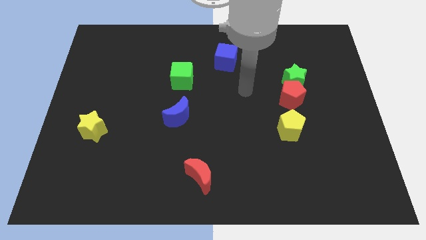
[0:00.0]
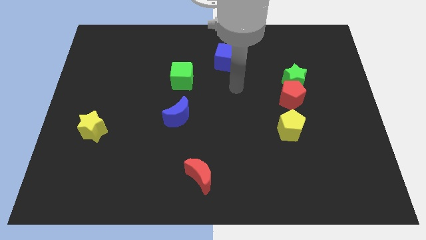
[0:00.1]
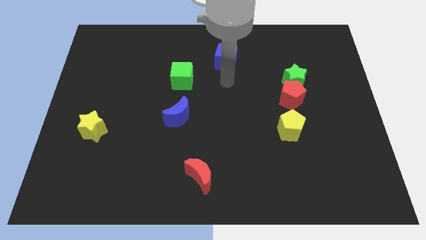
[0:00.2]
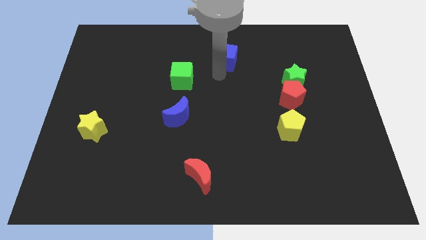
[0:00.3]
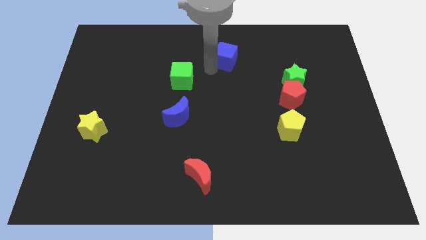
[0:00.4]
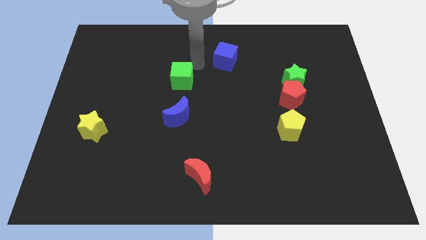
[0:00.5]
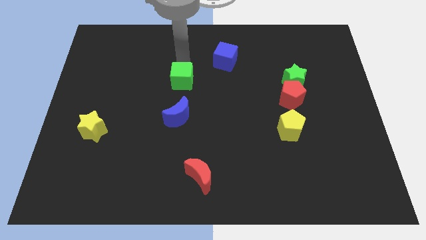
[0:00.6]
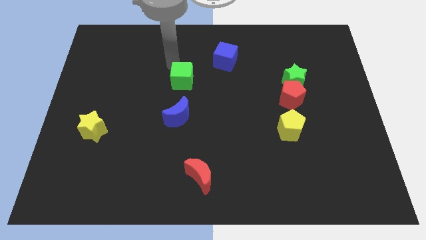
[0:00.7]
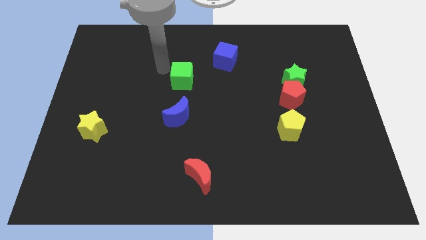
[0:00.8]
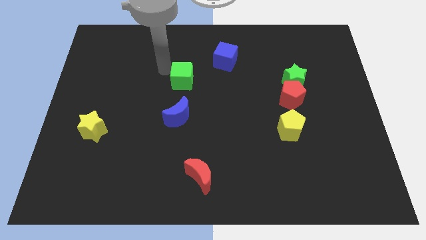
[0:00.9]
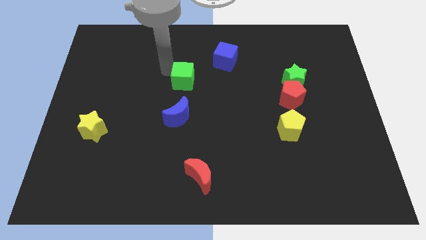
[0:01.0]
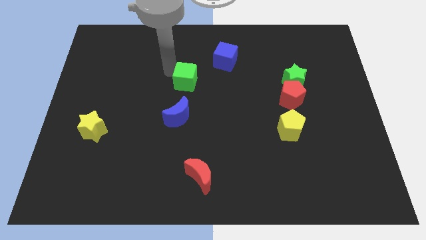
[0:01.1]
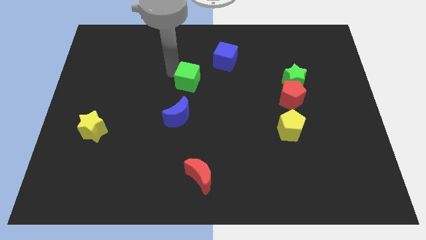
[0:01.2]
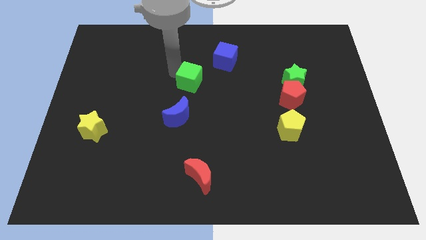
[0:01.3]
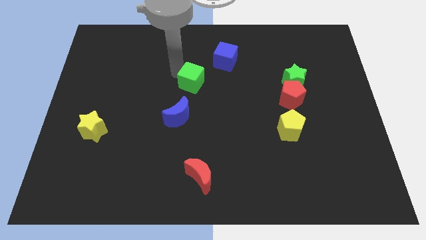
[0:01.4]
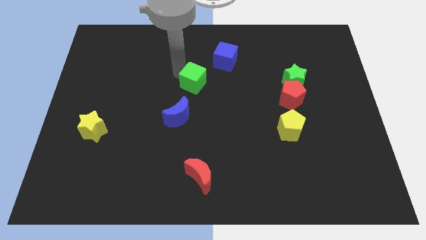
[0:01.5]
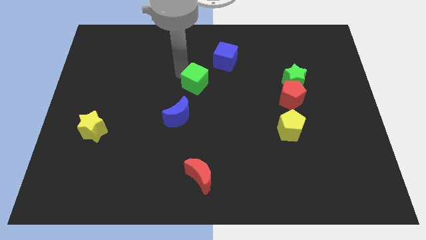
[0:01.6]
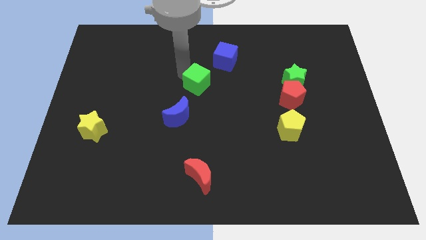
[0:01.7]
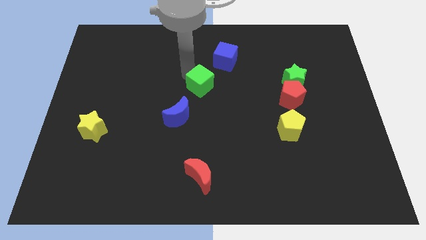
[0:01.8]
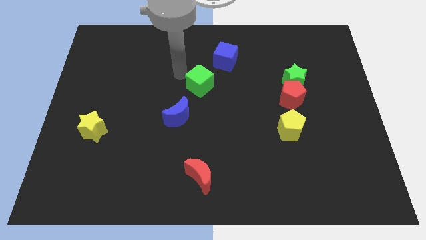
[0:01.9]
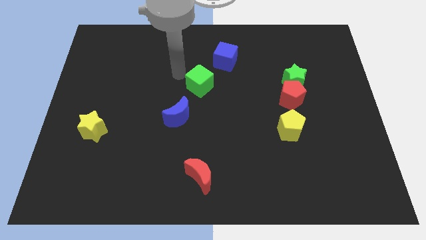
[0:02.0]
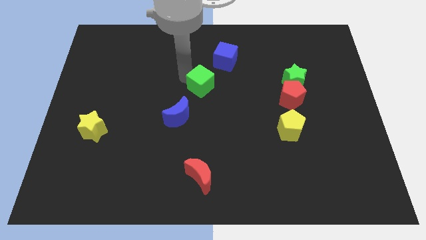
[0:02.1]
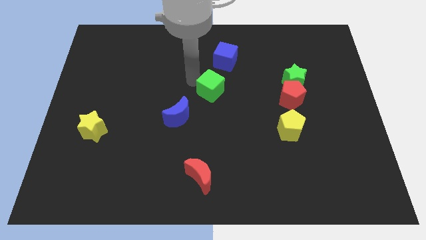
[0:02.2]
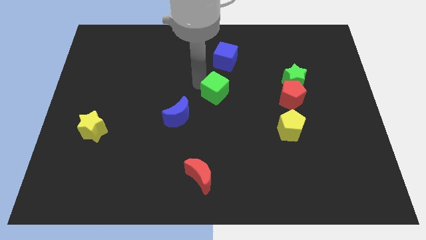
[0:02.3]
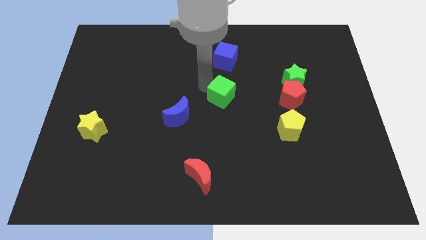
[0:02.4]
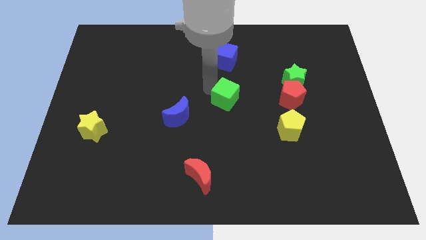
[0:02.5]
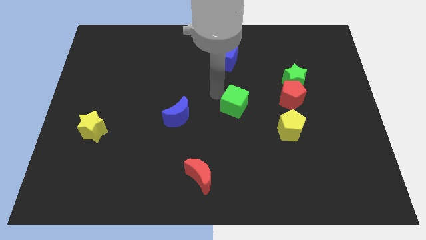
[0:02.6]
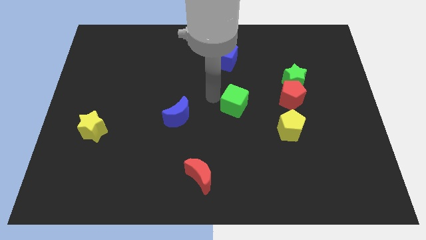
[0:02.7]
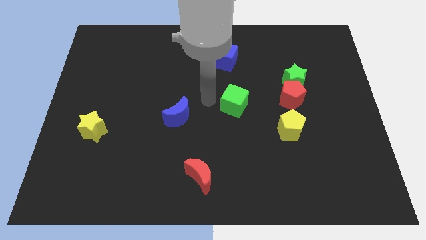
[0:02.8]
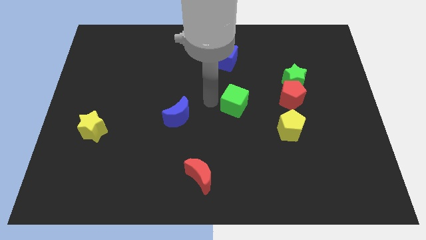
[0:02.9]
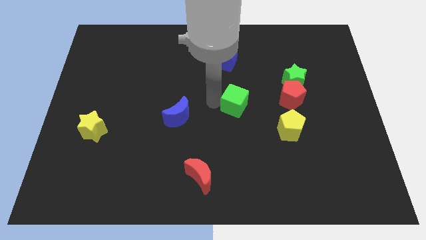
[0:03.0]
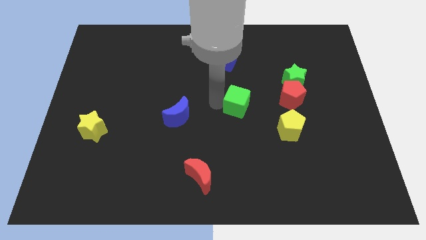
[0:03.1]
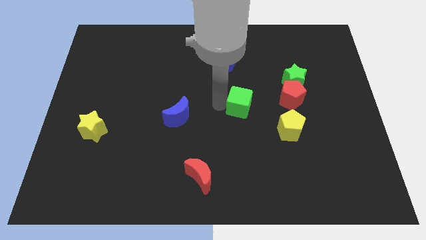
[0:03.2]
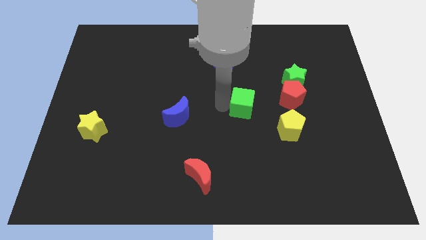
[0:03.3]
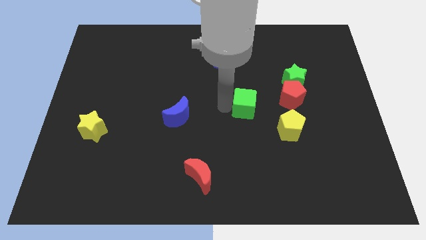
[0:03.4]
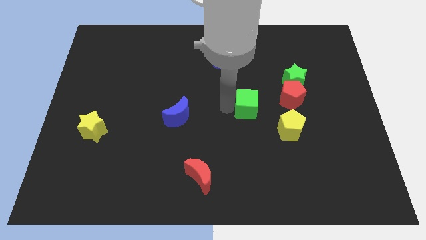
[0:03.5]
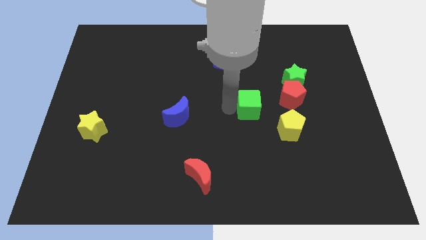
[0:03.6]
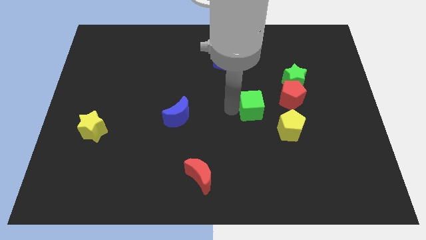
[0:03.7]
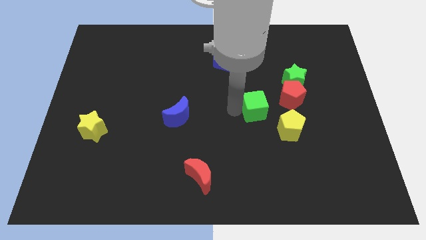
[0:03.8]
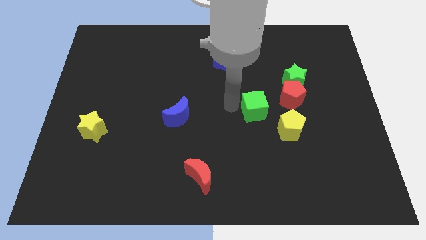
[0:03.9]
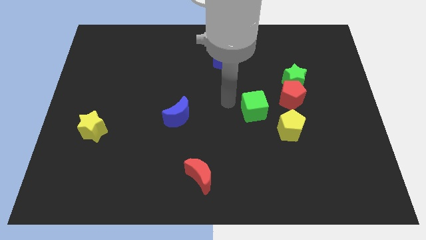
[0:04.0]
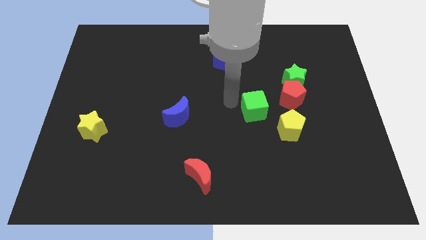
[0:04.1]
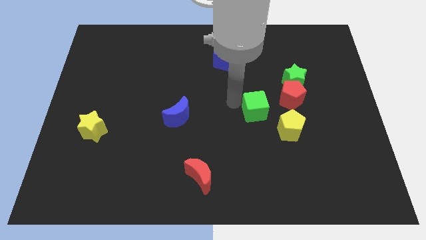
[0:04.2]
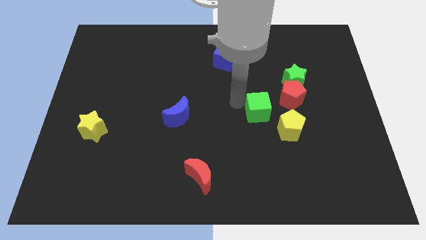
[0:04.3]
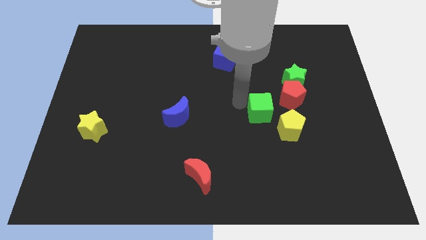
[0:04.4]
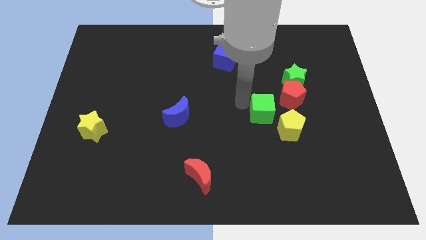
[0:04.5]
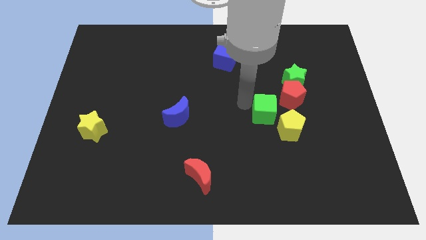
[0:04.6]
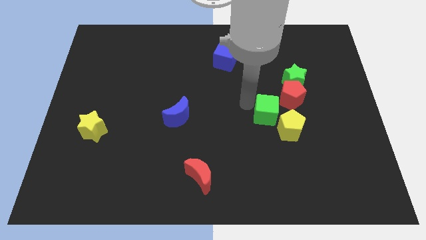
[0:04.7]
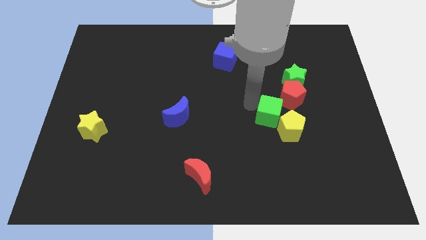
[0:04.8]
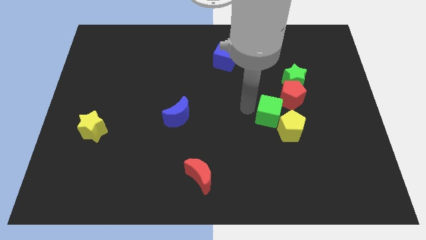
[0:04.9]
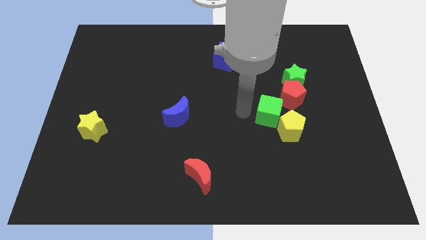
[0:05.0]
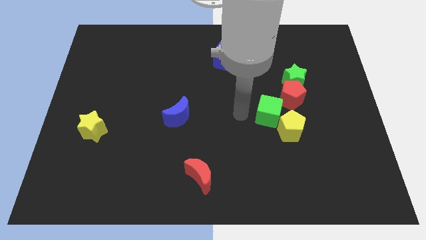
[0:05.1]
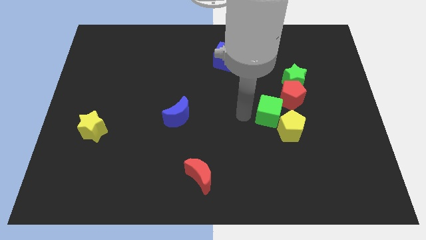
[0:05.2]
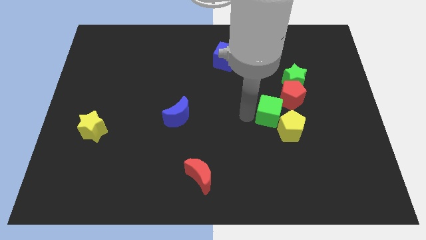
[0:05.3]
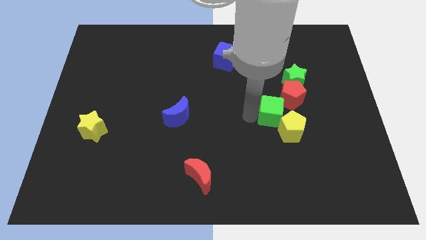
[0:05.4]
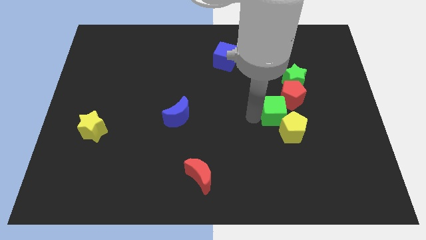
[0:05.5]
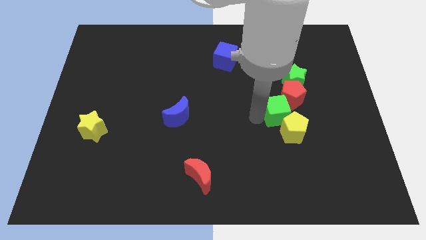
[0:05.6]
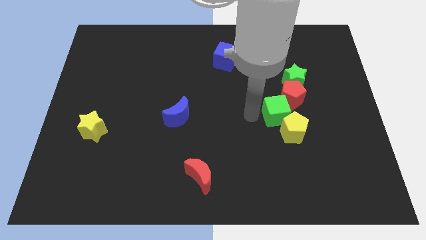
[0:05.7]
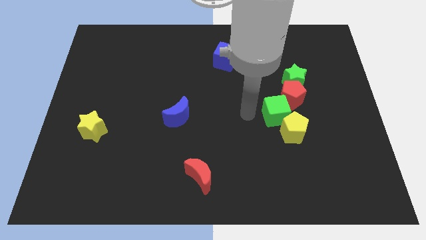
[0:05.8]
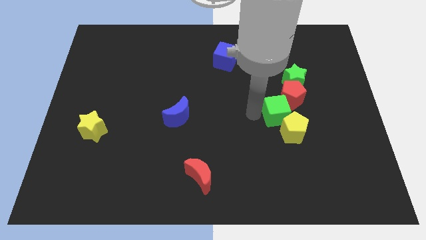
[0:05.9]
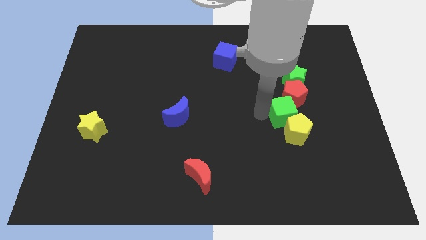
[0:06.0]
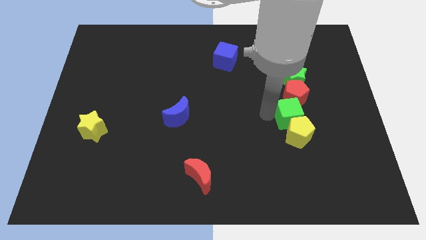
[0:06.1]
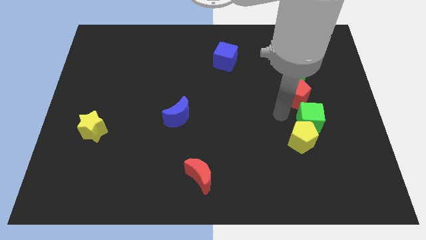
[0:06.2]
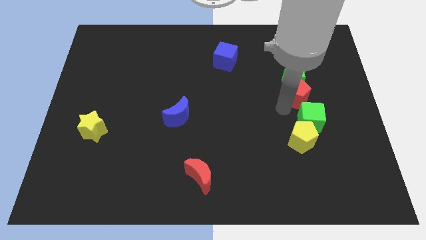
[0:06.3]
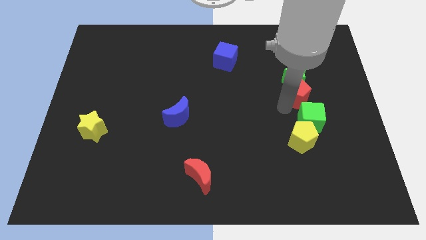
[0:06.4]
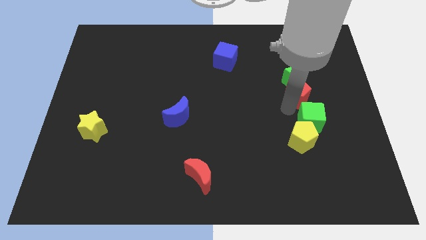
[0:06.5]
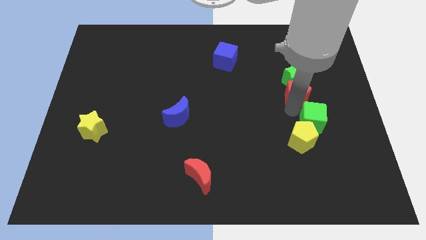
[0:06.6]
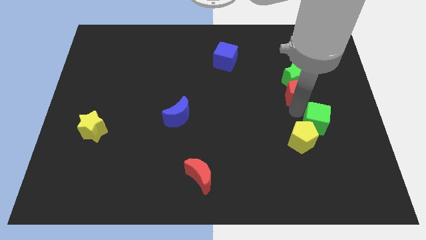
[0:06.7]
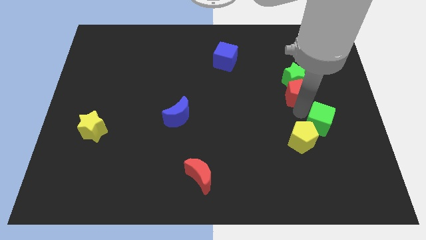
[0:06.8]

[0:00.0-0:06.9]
slide the green cube to the right of the yellow pentagon

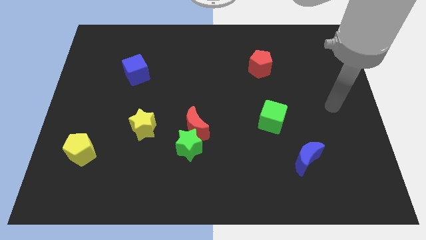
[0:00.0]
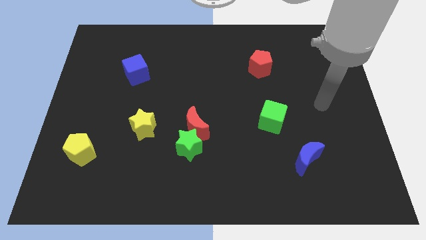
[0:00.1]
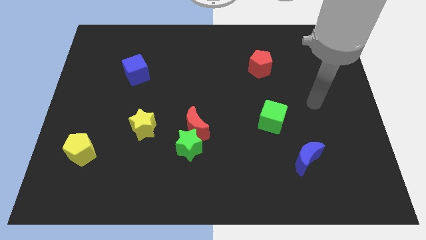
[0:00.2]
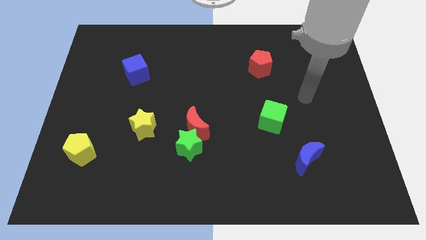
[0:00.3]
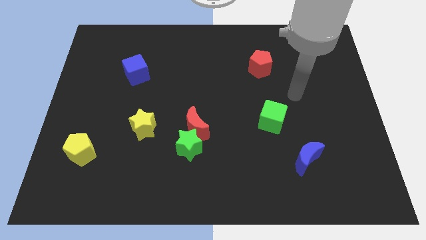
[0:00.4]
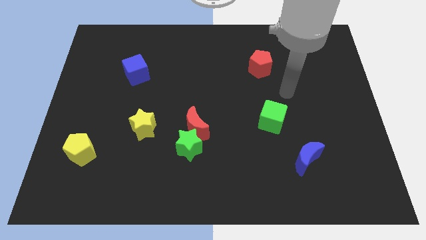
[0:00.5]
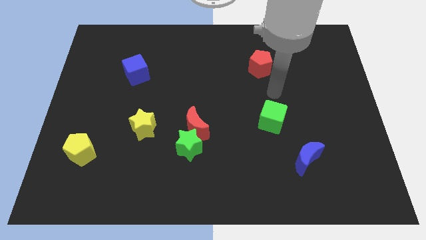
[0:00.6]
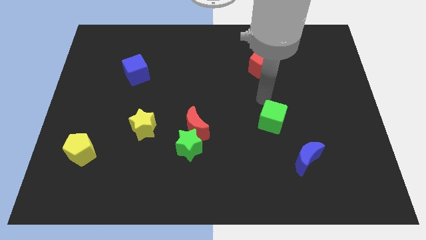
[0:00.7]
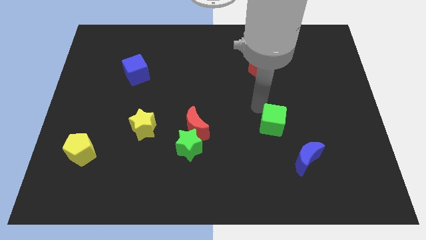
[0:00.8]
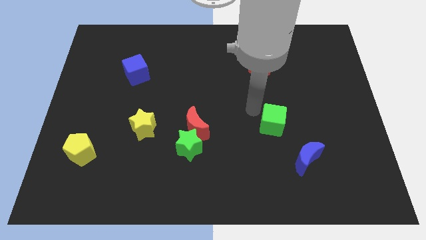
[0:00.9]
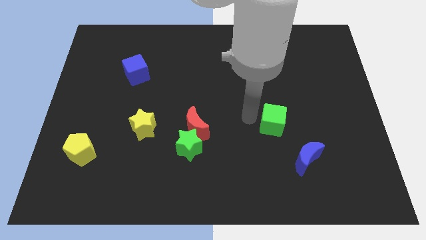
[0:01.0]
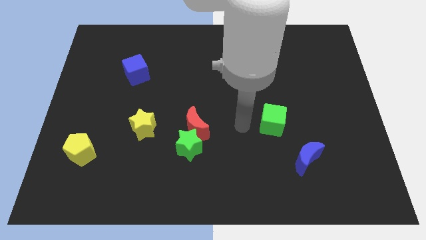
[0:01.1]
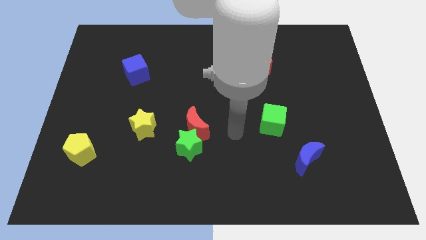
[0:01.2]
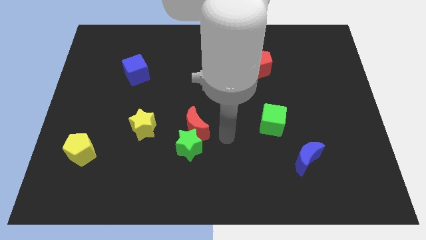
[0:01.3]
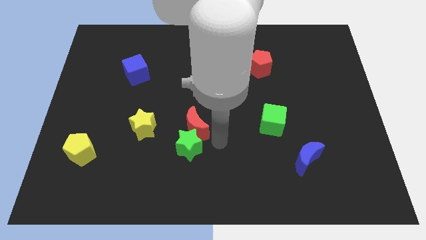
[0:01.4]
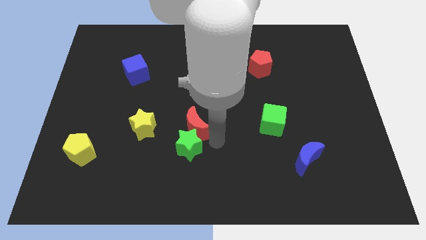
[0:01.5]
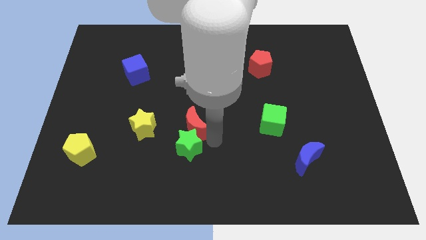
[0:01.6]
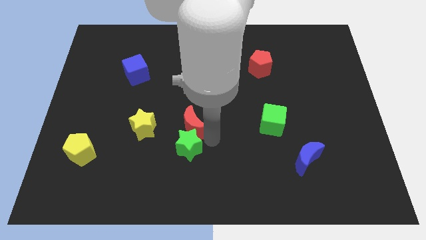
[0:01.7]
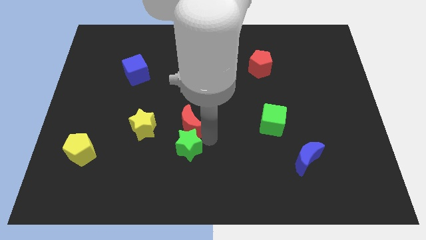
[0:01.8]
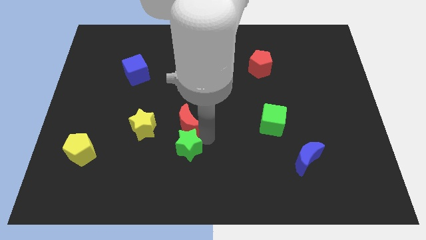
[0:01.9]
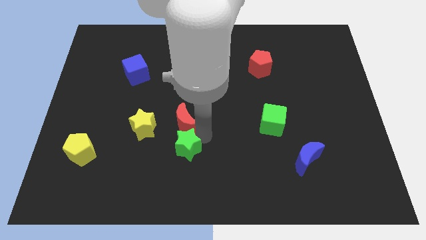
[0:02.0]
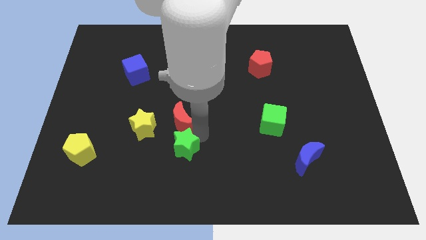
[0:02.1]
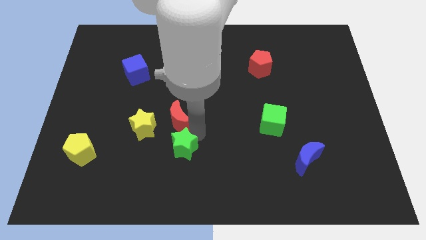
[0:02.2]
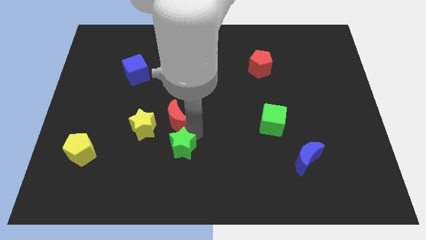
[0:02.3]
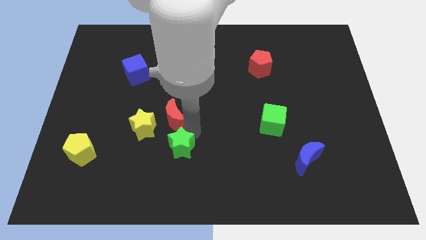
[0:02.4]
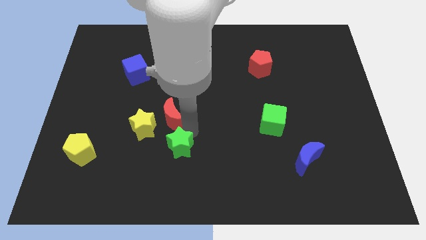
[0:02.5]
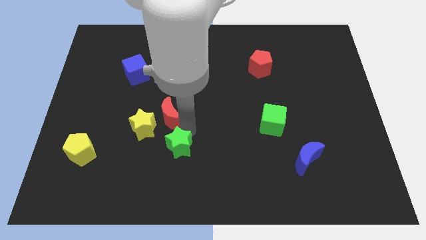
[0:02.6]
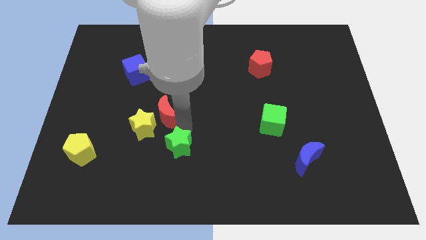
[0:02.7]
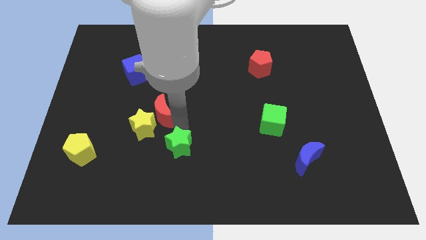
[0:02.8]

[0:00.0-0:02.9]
move the red moon to the top of the yellow star
